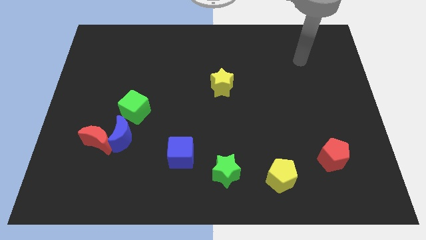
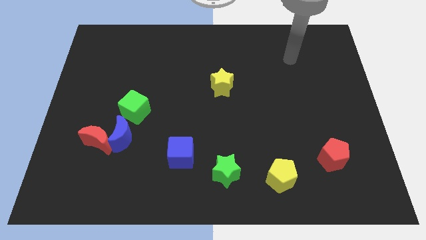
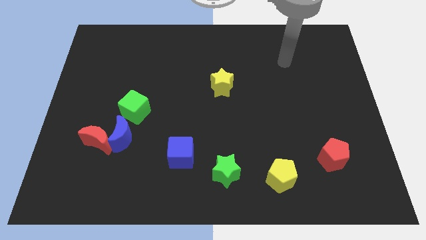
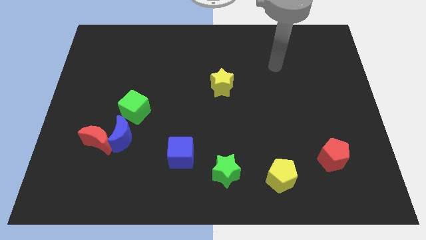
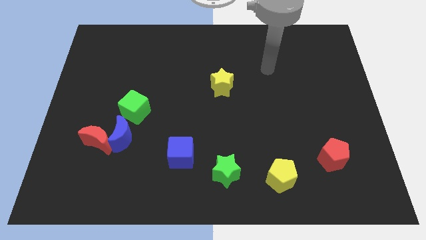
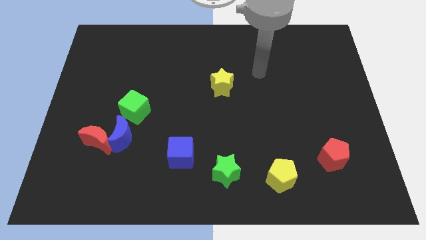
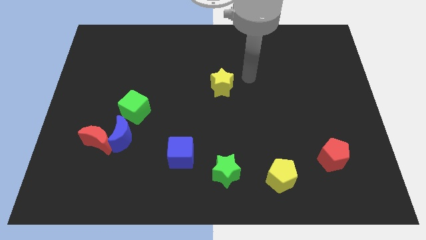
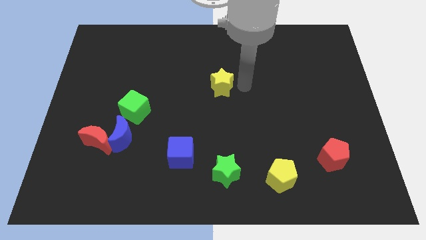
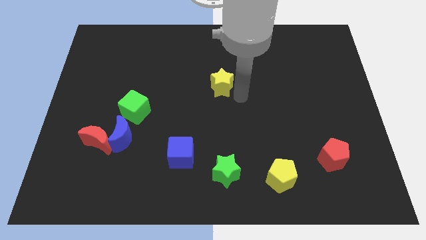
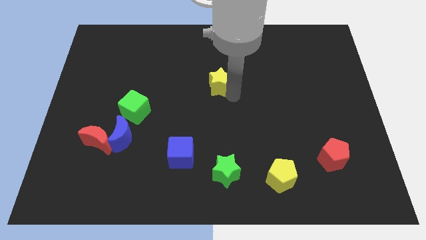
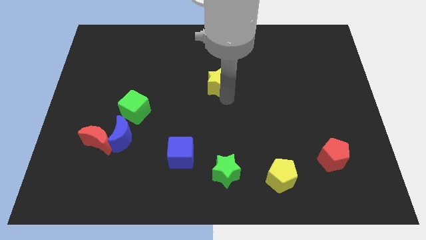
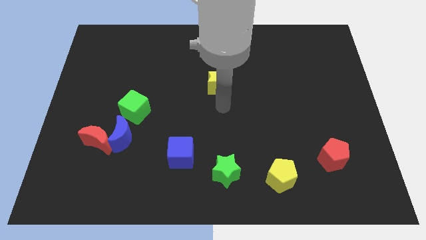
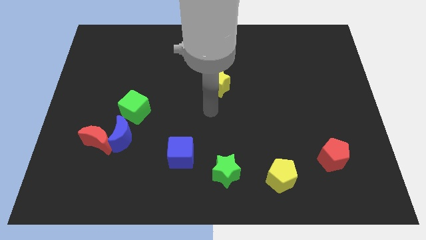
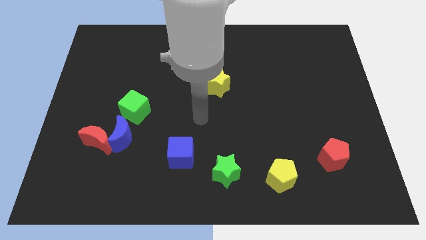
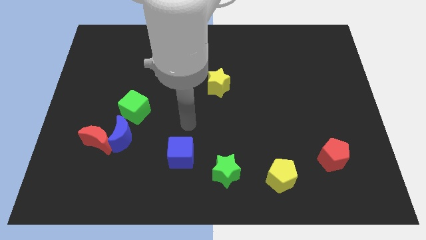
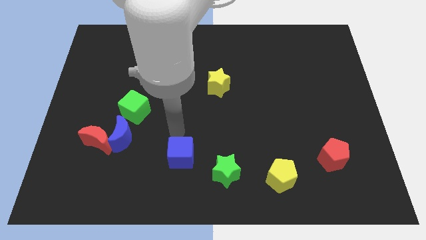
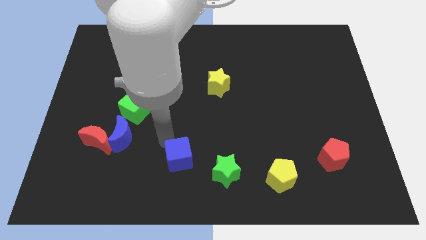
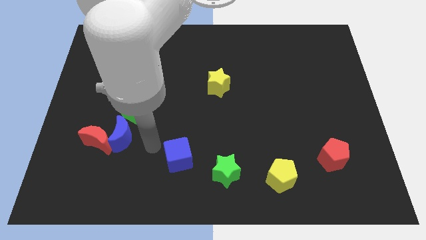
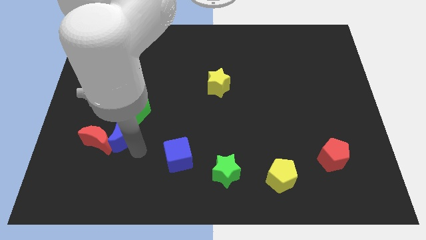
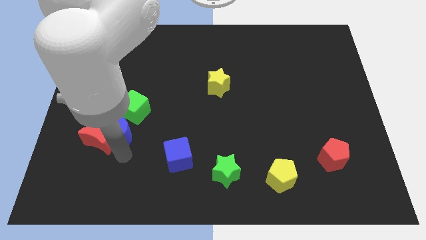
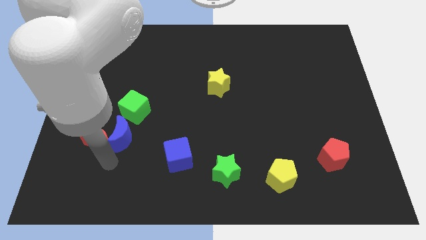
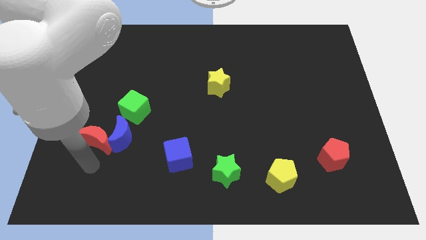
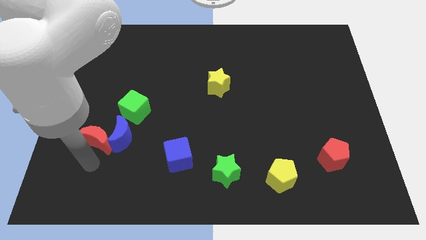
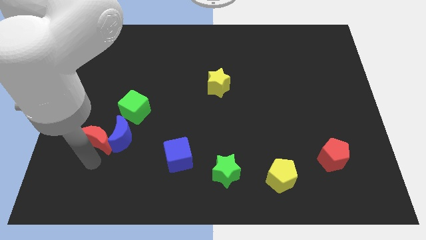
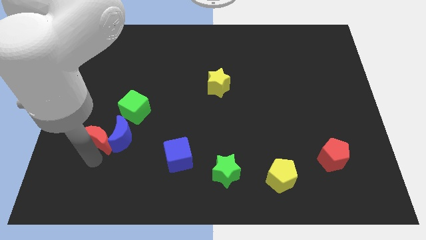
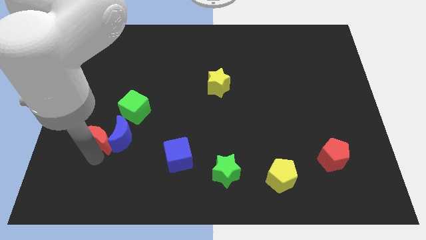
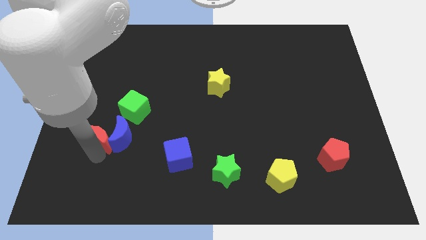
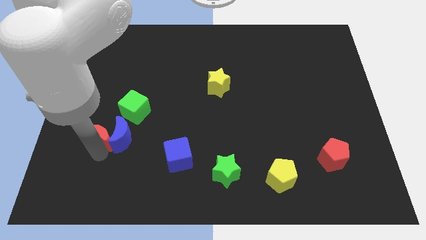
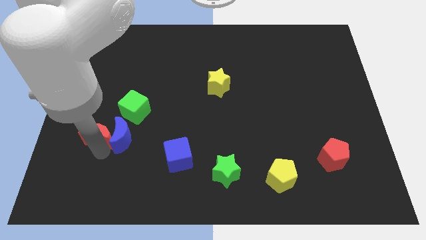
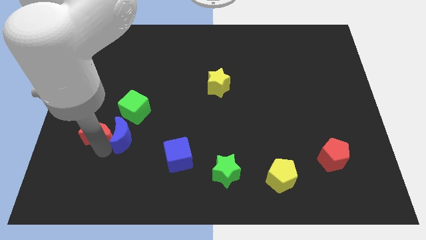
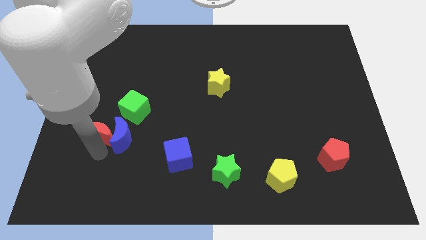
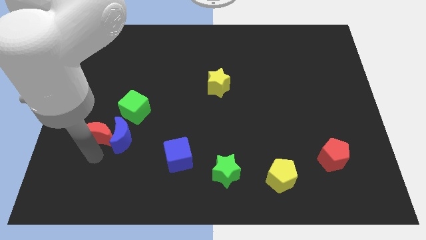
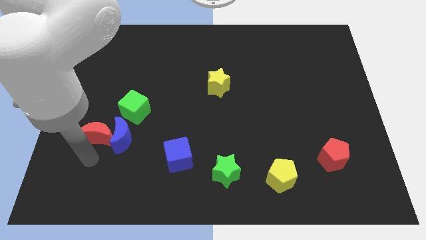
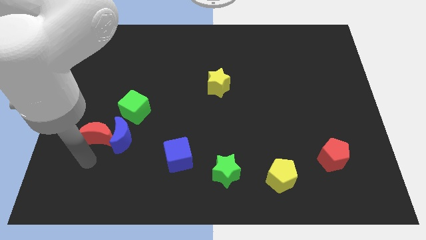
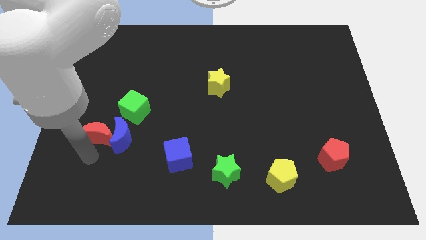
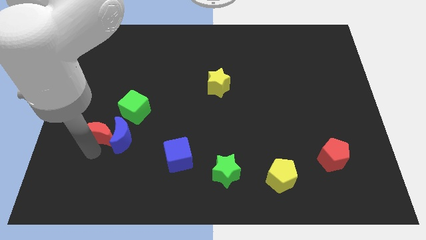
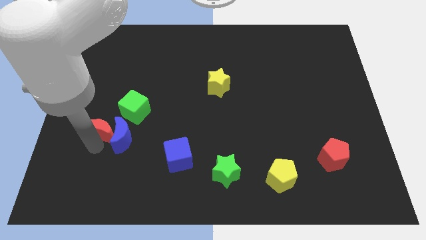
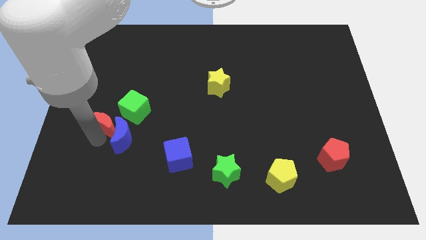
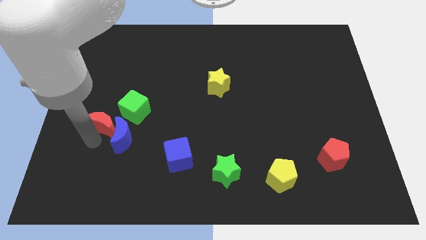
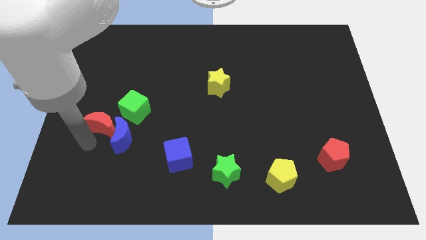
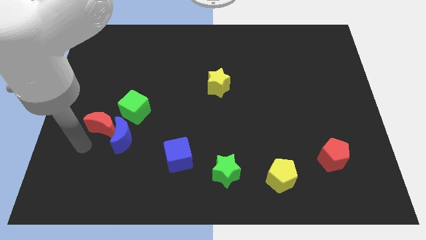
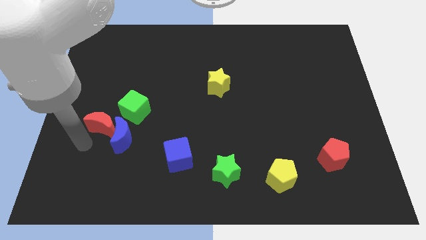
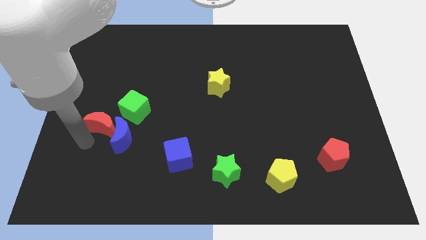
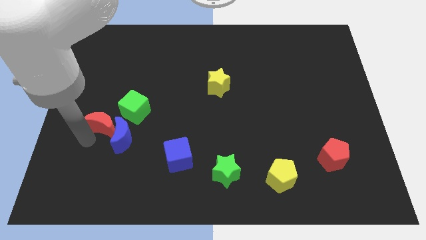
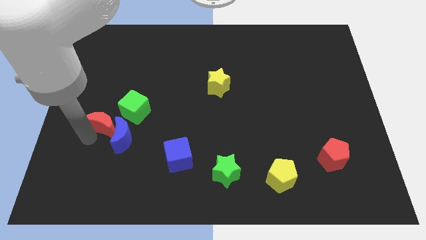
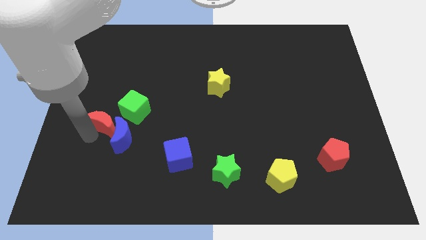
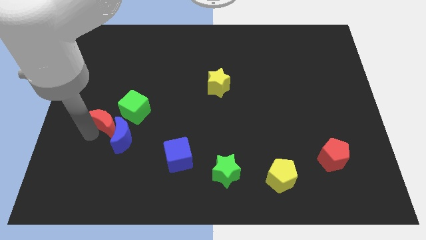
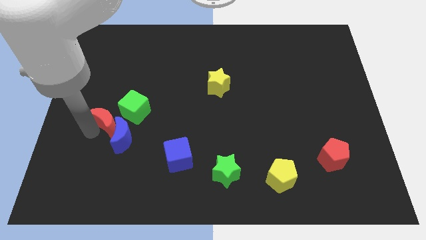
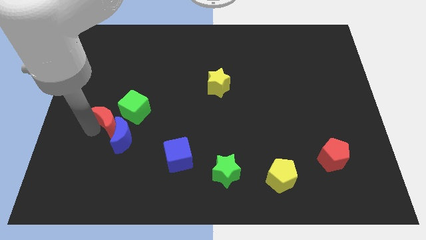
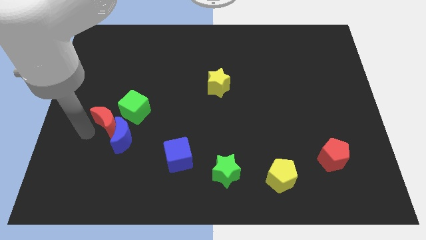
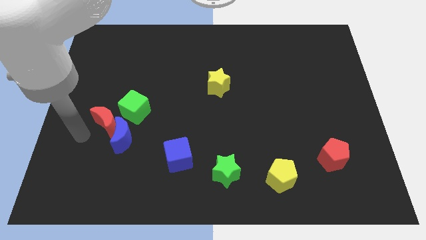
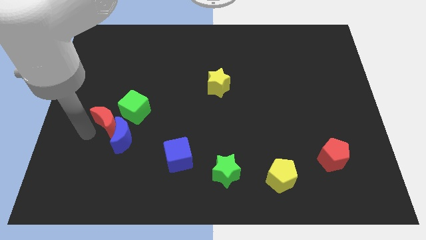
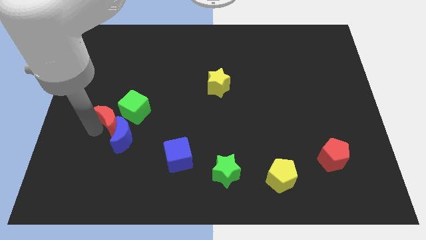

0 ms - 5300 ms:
move the red moon next to the green cube

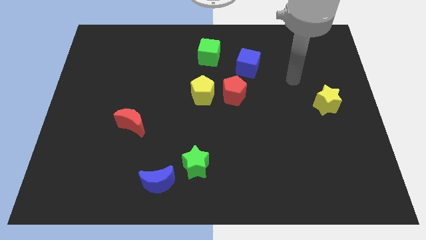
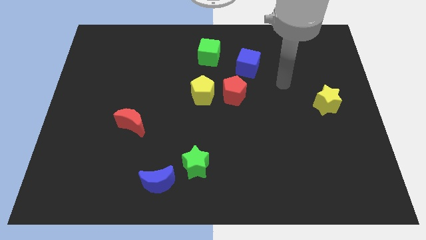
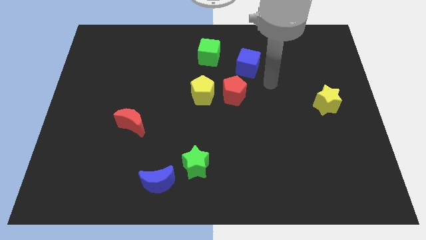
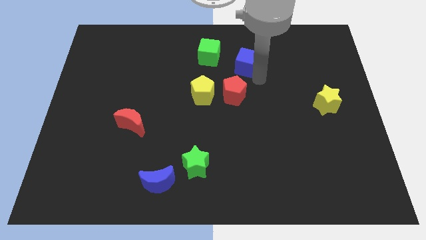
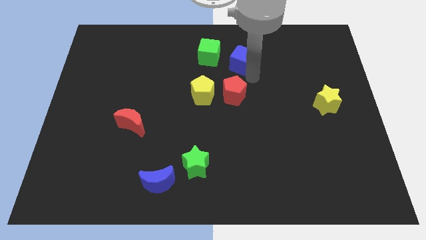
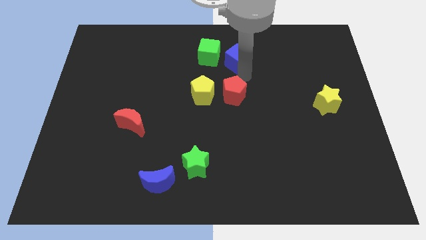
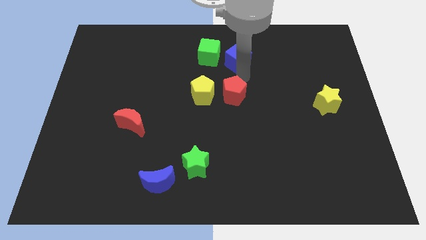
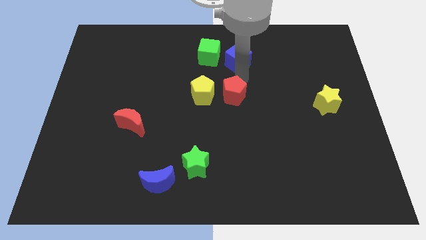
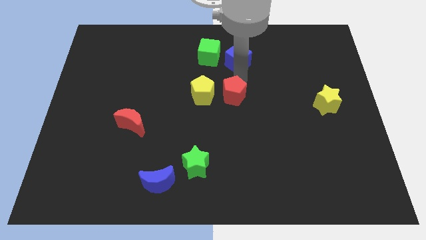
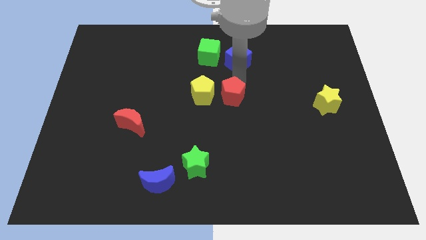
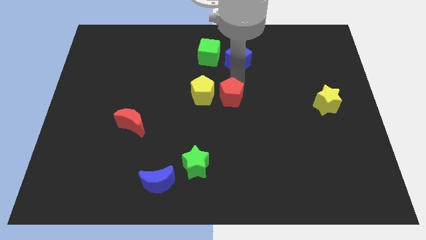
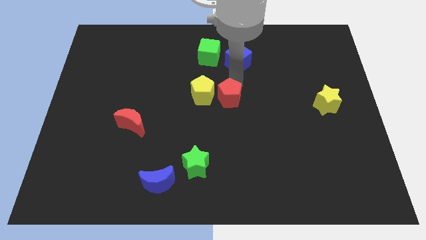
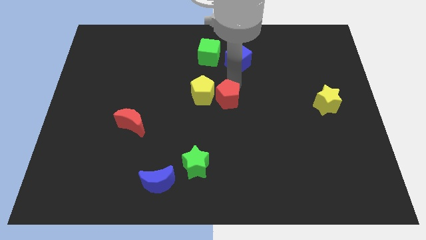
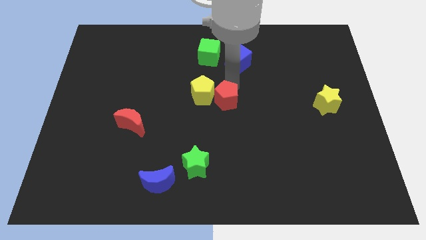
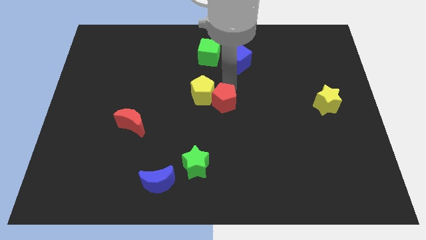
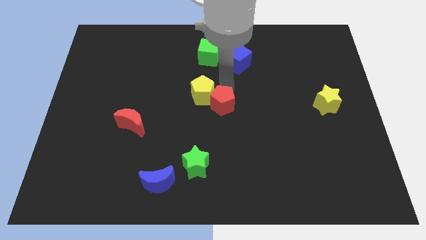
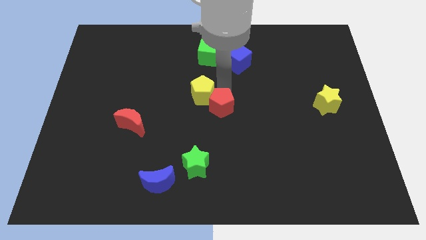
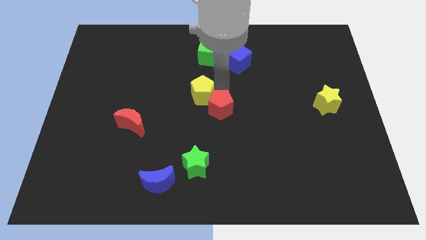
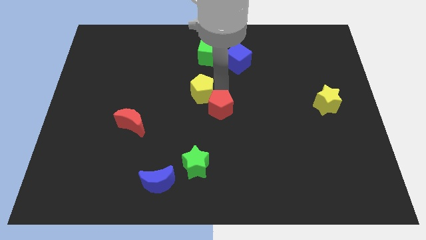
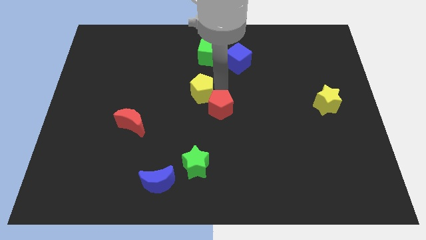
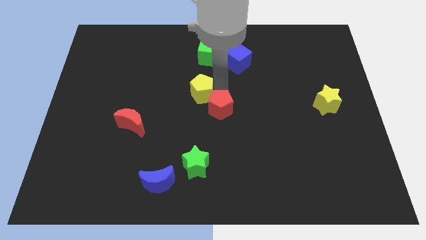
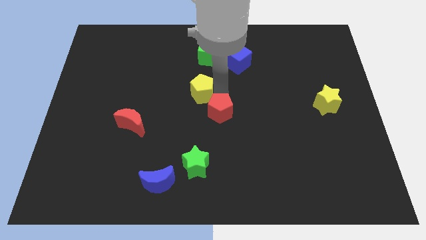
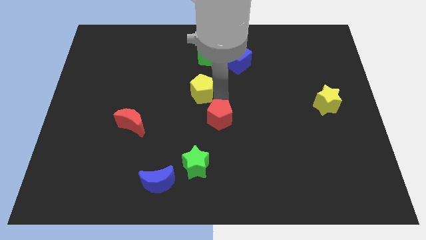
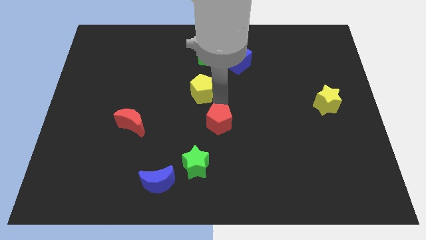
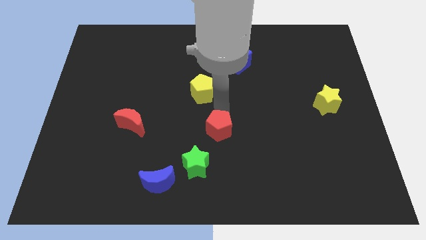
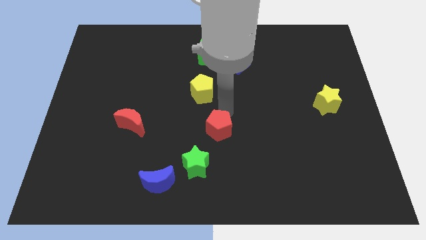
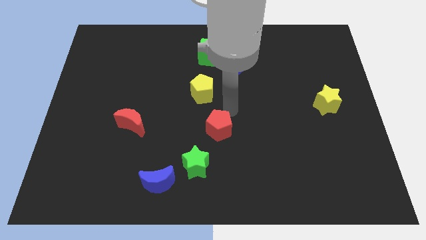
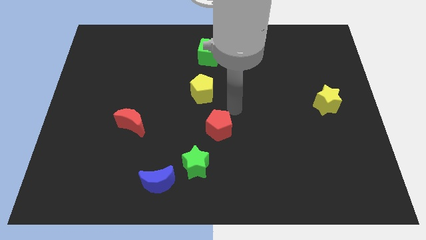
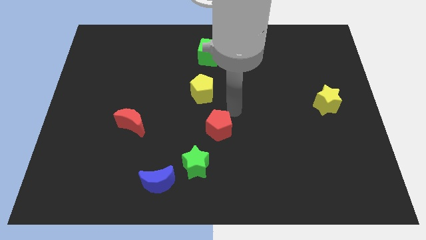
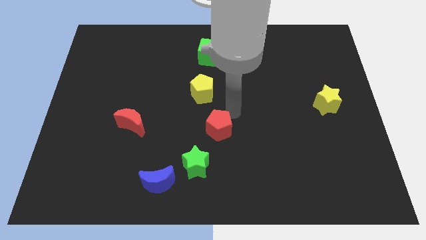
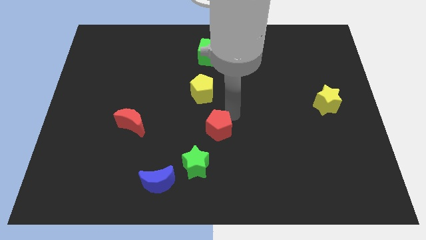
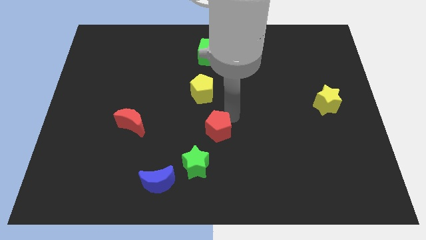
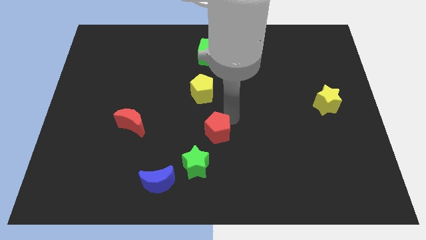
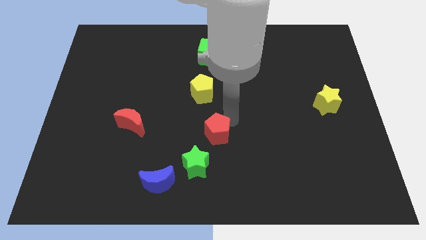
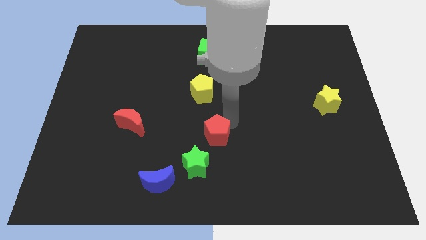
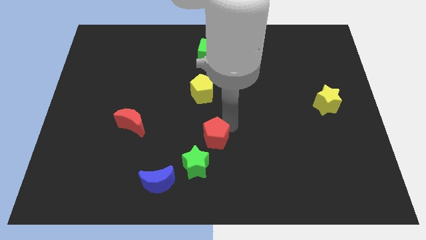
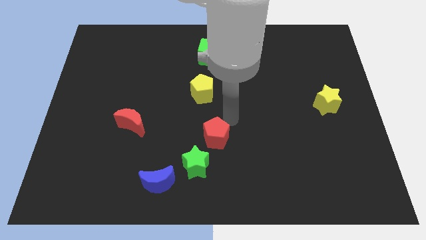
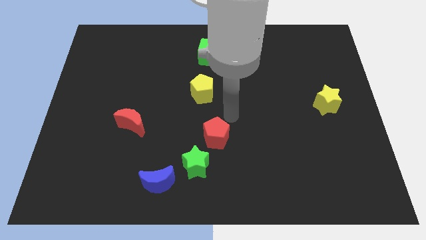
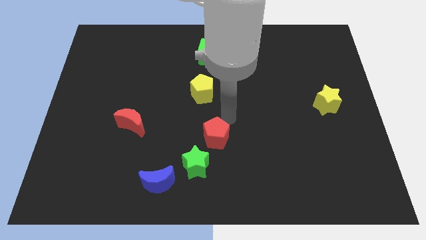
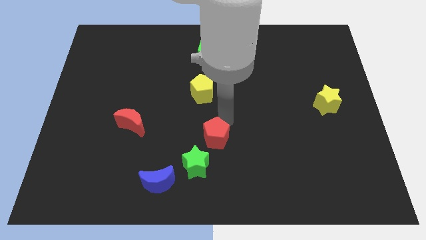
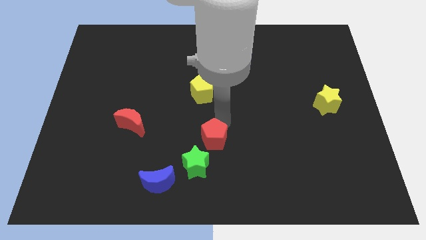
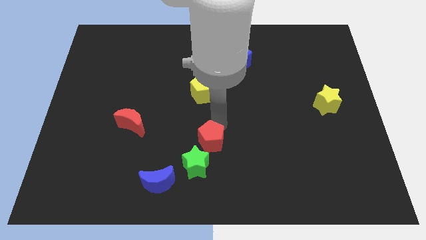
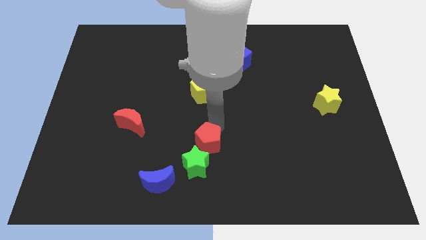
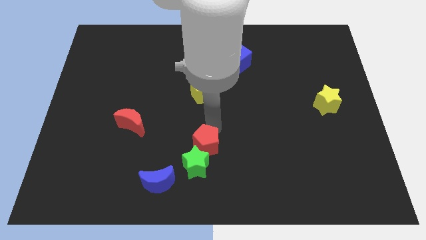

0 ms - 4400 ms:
push the red pentagon close to the green star
